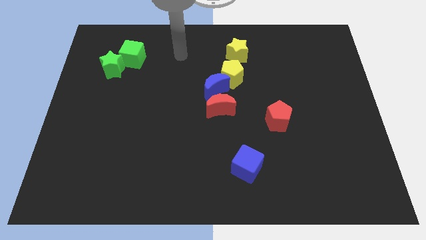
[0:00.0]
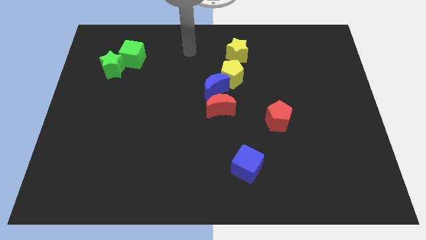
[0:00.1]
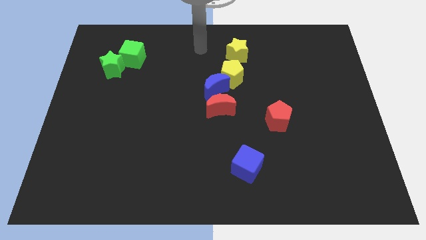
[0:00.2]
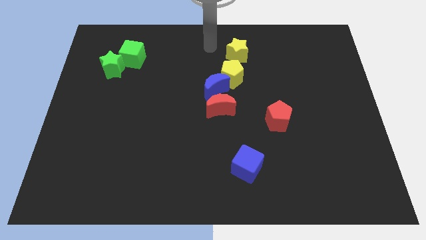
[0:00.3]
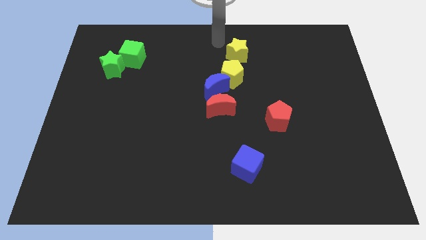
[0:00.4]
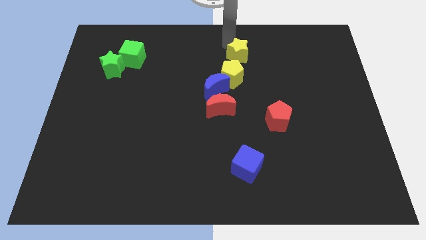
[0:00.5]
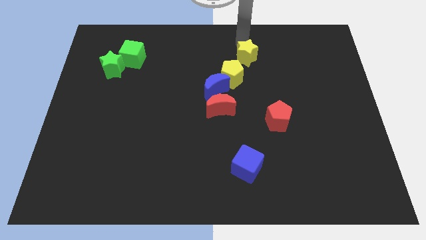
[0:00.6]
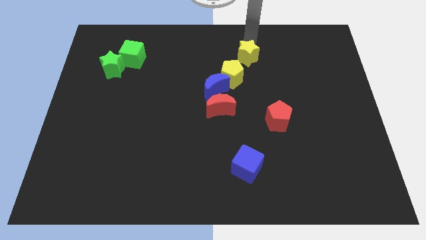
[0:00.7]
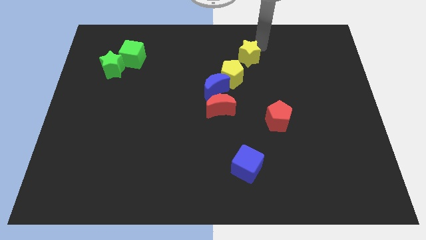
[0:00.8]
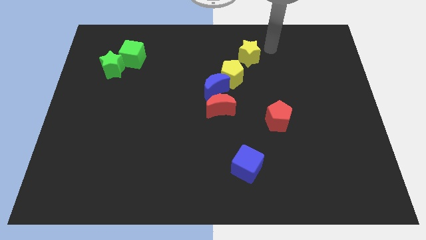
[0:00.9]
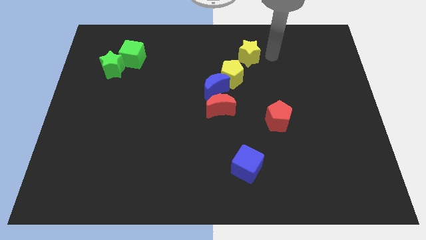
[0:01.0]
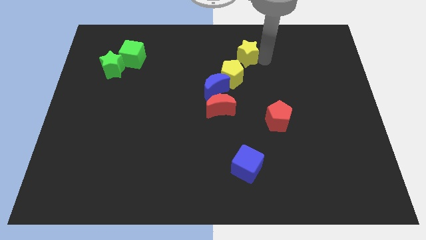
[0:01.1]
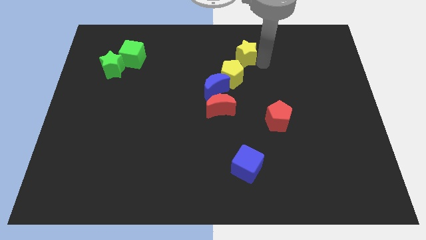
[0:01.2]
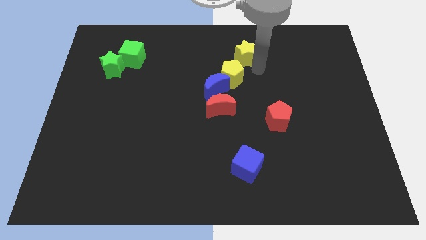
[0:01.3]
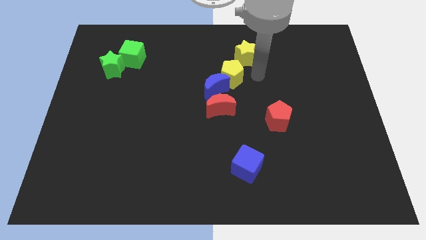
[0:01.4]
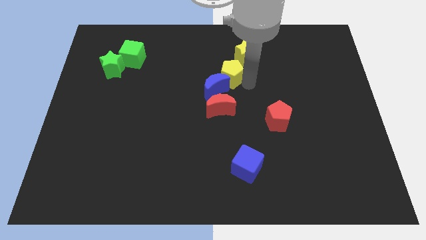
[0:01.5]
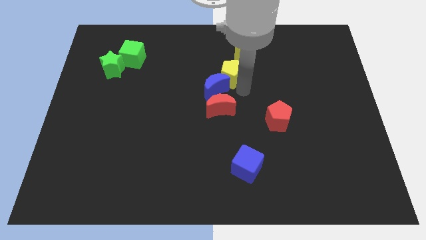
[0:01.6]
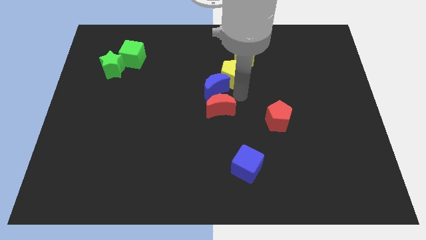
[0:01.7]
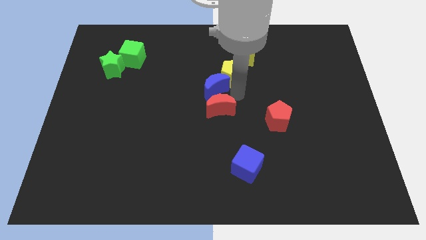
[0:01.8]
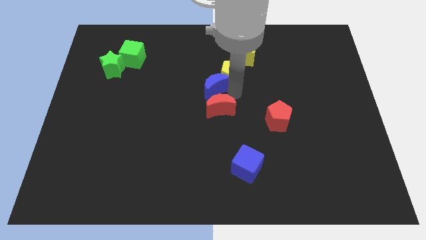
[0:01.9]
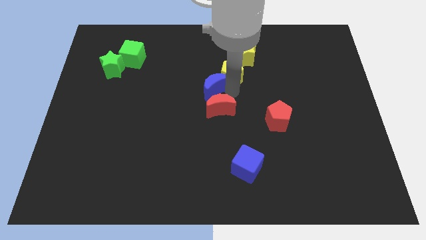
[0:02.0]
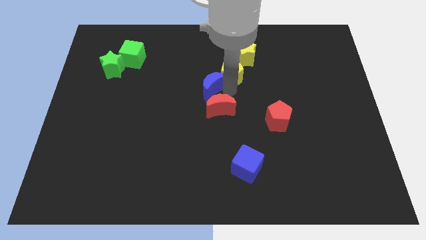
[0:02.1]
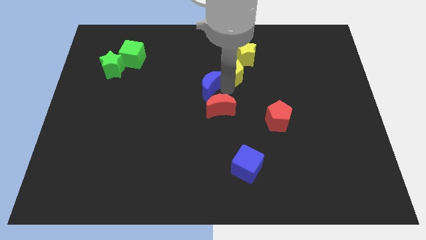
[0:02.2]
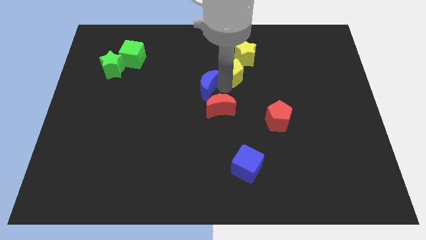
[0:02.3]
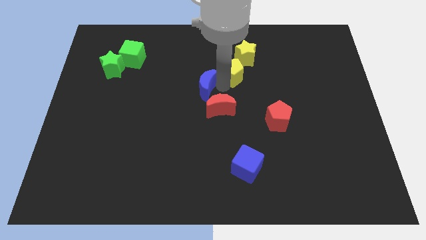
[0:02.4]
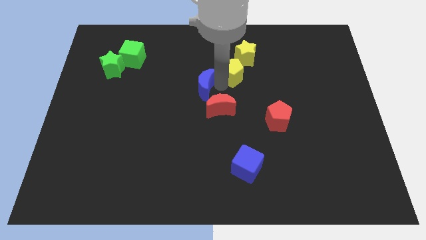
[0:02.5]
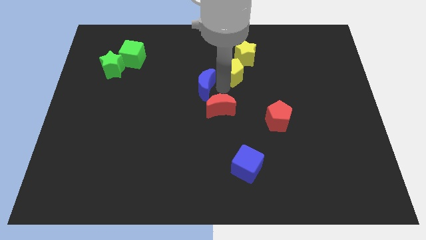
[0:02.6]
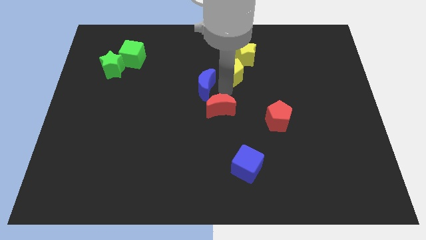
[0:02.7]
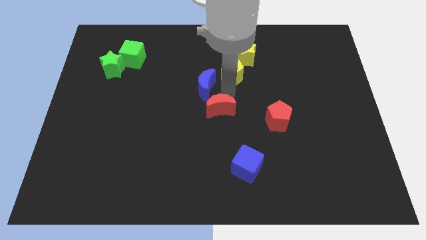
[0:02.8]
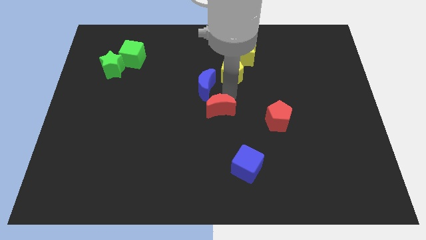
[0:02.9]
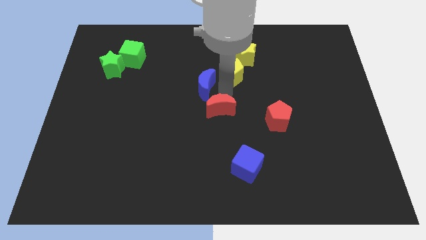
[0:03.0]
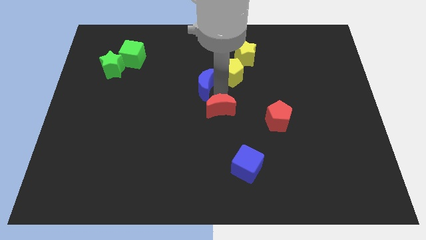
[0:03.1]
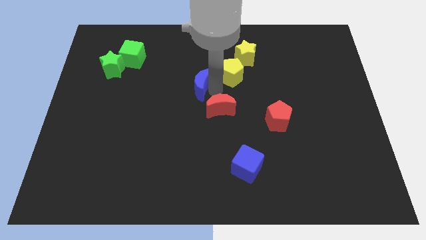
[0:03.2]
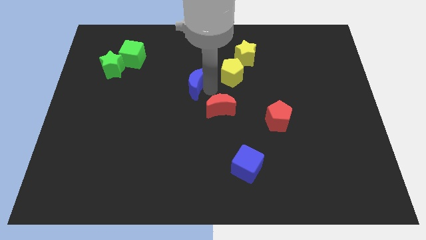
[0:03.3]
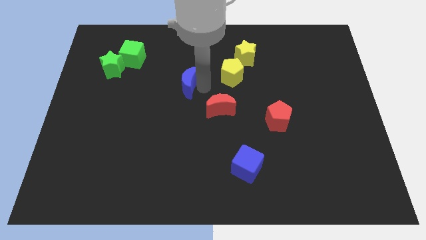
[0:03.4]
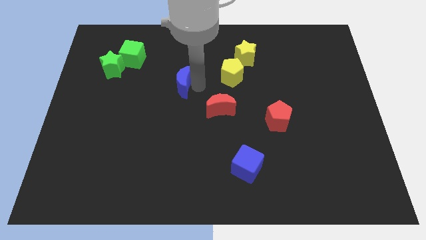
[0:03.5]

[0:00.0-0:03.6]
separate the blue moon from the yellow pentagon and red moon

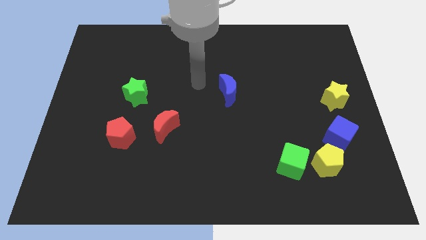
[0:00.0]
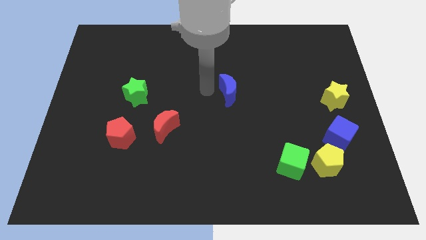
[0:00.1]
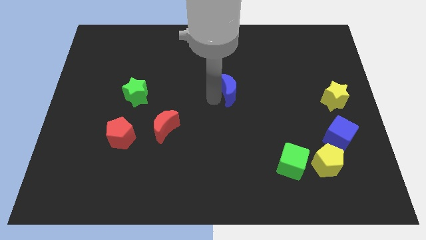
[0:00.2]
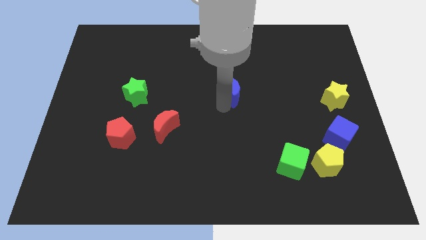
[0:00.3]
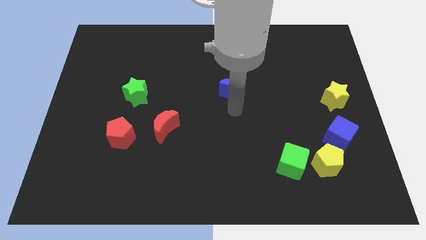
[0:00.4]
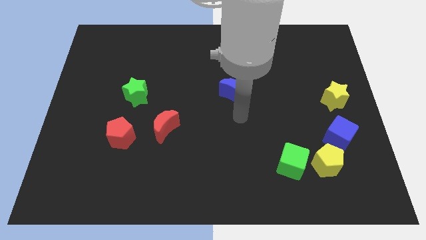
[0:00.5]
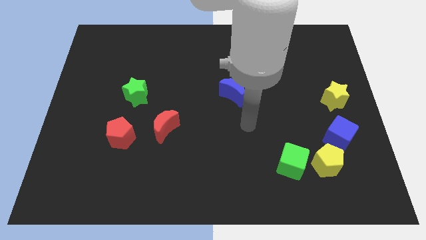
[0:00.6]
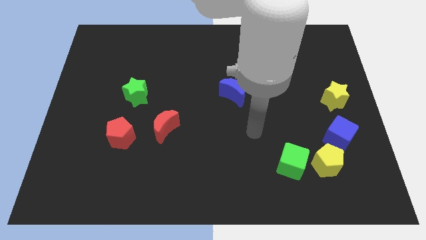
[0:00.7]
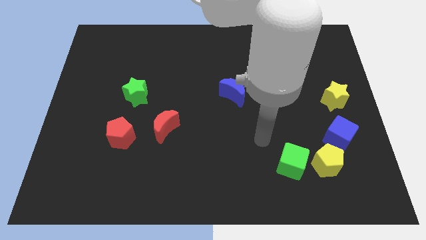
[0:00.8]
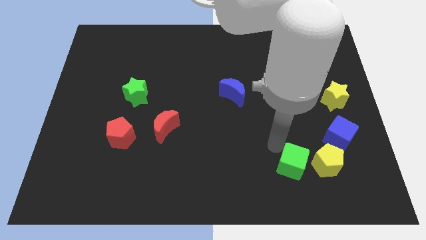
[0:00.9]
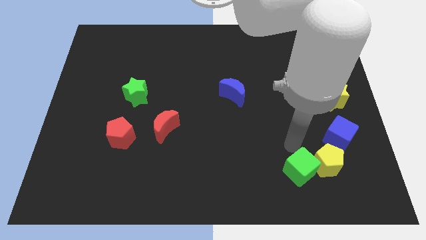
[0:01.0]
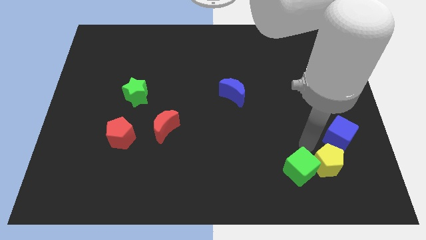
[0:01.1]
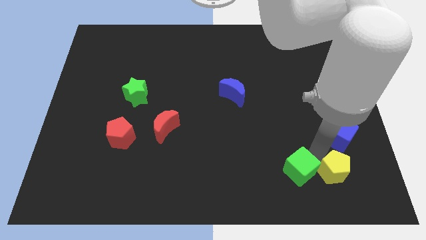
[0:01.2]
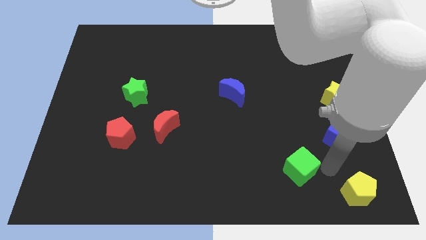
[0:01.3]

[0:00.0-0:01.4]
move the green cube away from the yellow pentagon

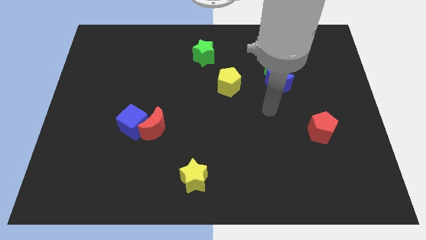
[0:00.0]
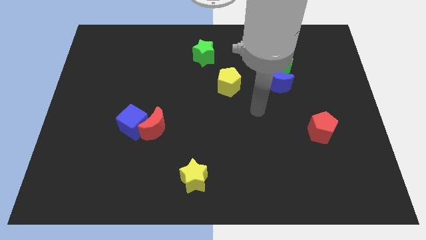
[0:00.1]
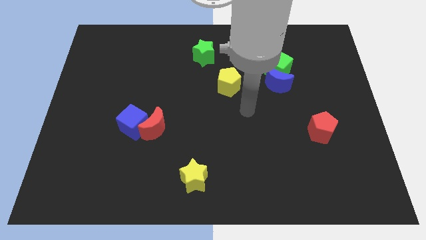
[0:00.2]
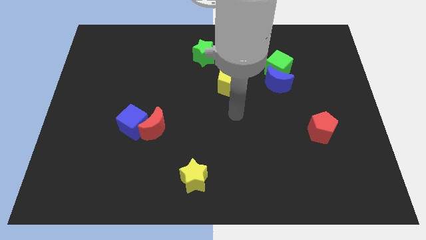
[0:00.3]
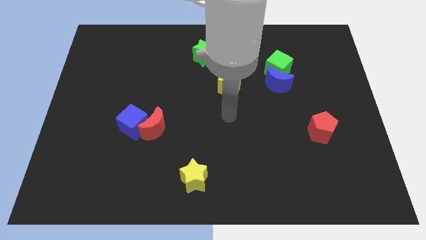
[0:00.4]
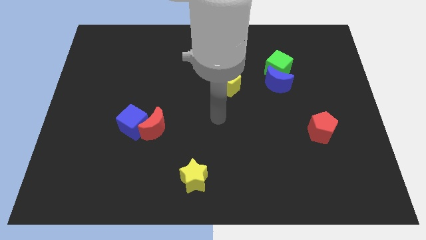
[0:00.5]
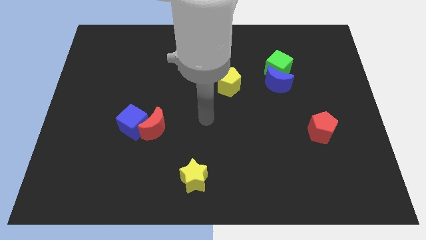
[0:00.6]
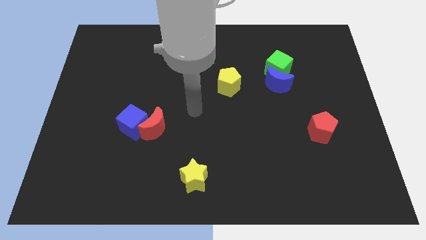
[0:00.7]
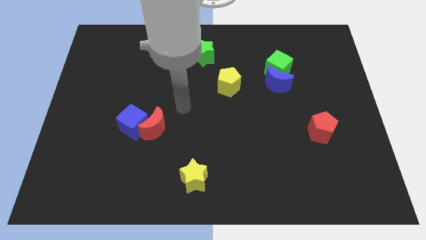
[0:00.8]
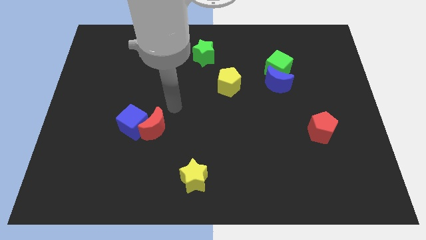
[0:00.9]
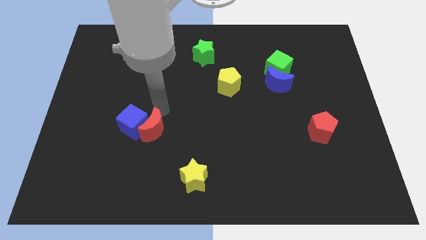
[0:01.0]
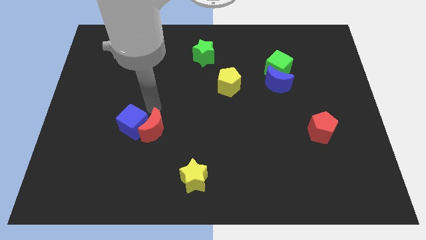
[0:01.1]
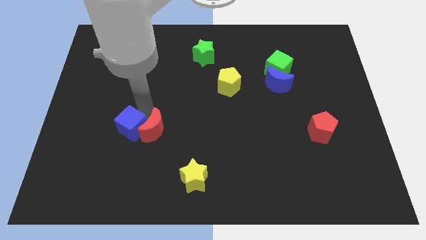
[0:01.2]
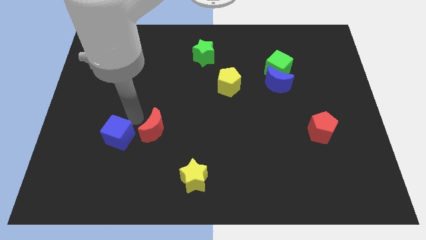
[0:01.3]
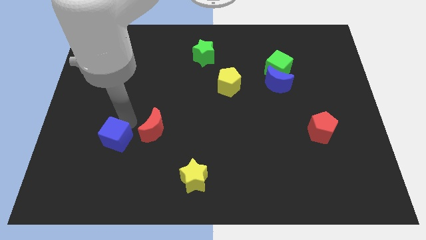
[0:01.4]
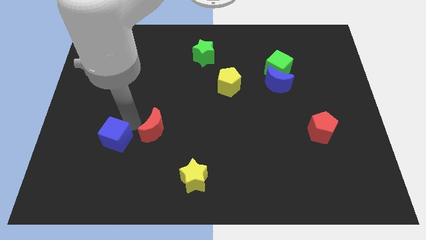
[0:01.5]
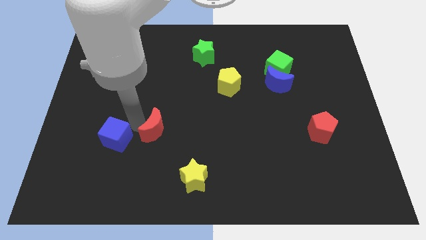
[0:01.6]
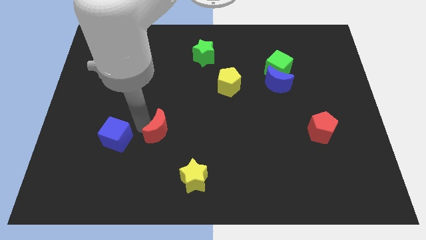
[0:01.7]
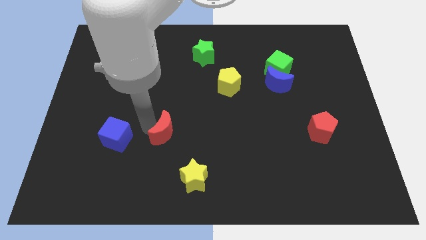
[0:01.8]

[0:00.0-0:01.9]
pull the red moon apart from the blue cube

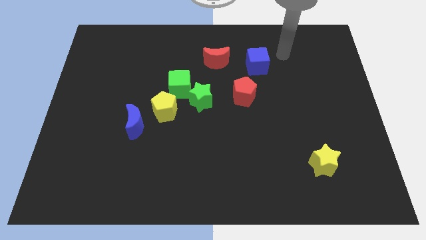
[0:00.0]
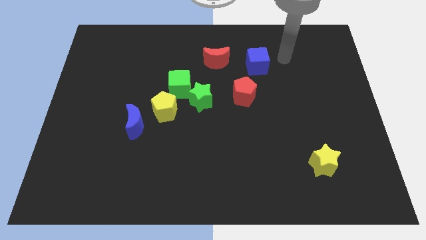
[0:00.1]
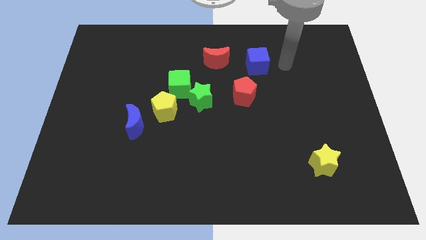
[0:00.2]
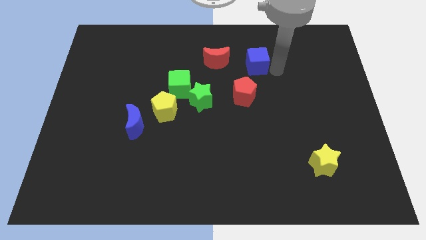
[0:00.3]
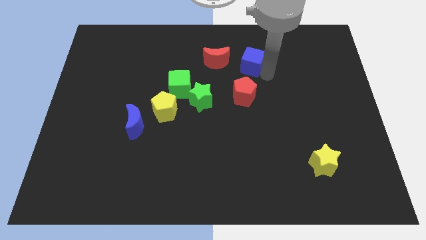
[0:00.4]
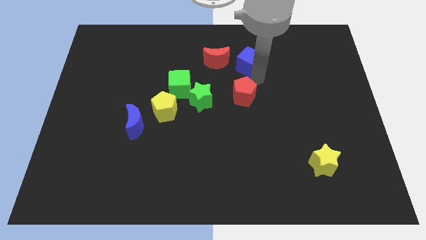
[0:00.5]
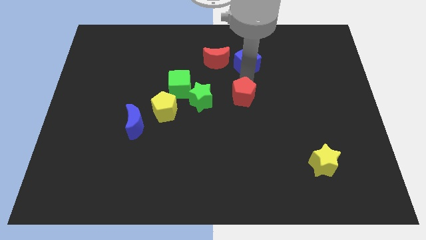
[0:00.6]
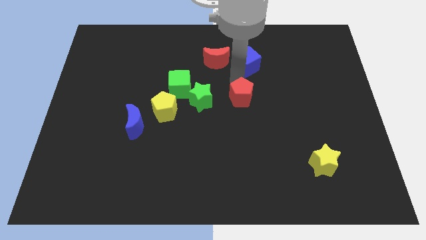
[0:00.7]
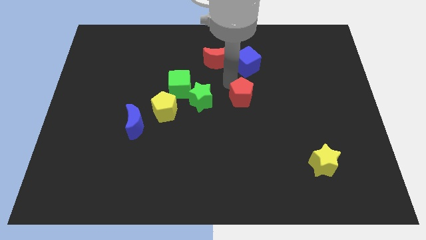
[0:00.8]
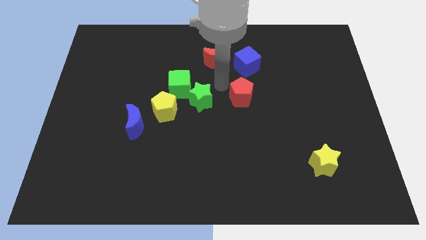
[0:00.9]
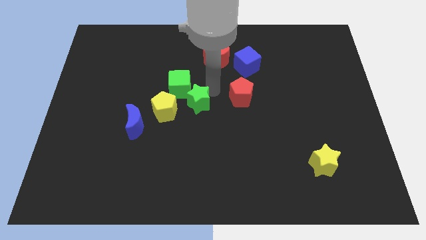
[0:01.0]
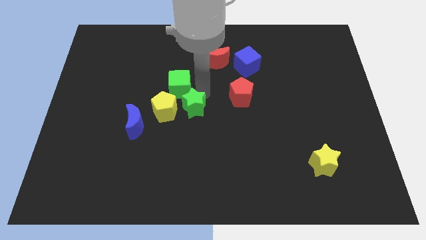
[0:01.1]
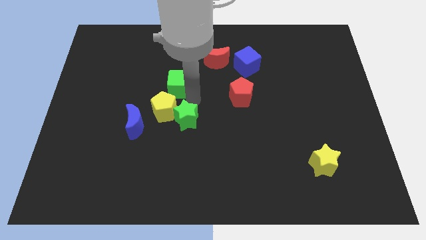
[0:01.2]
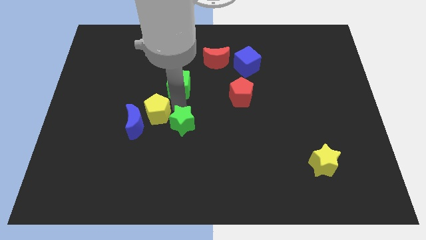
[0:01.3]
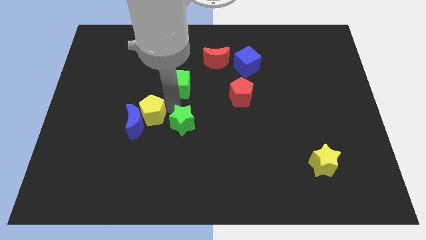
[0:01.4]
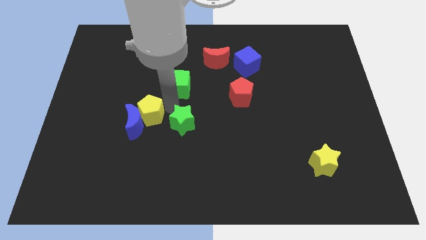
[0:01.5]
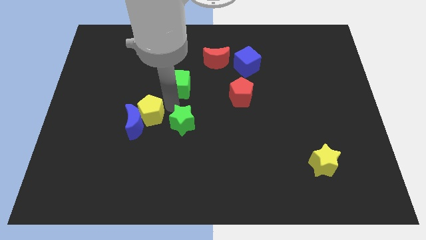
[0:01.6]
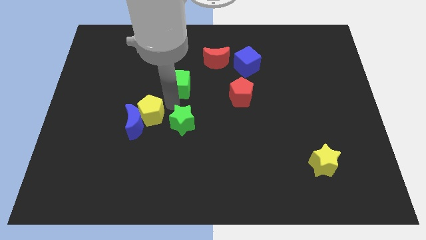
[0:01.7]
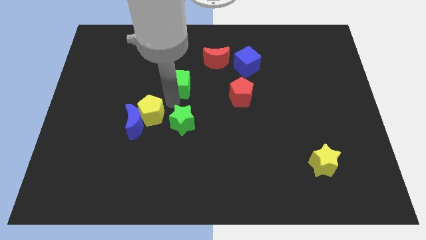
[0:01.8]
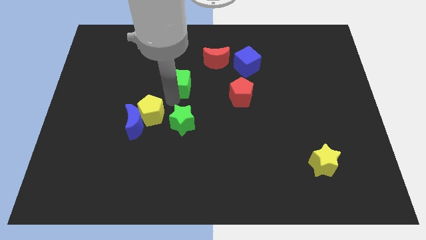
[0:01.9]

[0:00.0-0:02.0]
move the green cube away from the green star and yellow pentagon

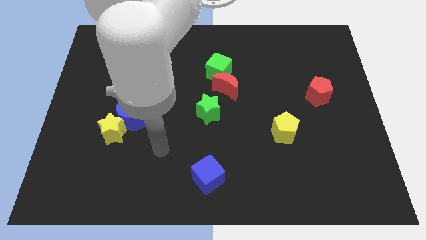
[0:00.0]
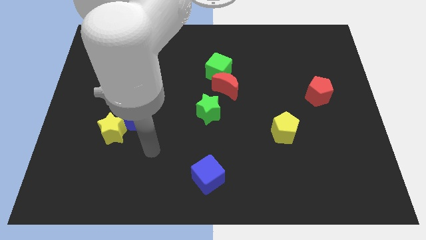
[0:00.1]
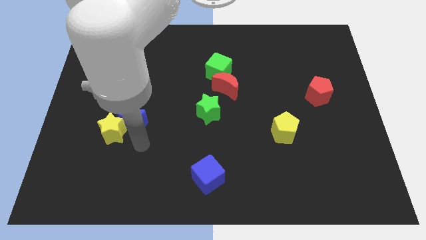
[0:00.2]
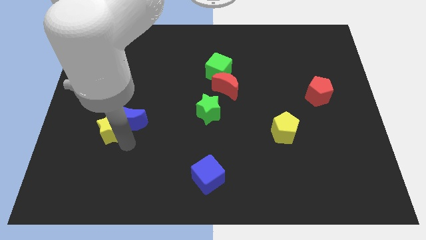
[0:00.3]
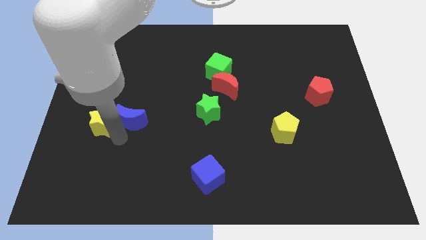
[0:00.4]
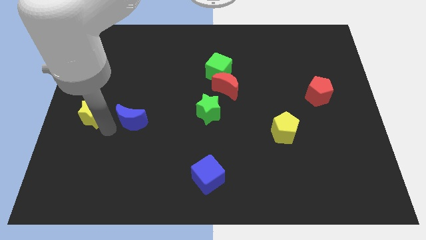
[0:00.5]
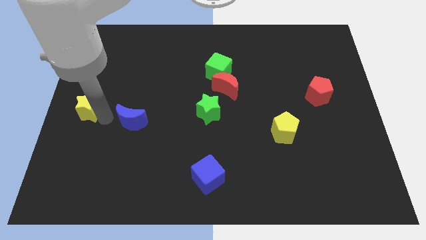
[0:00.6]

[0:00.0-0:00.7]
pull the blue moon apart from the yellow star
